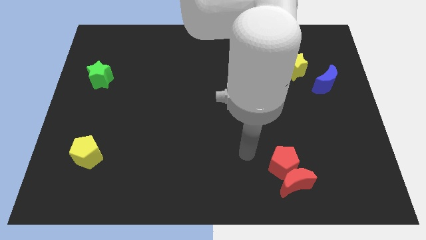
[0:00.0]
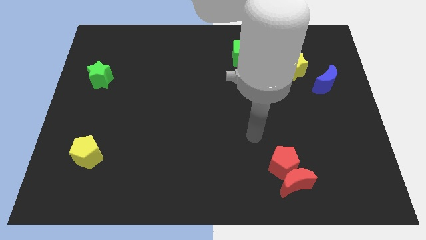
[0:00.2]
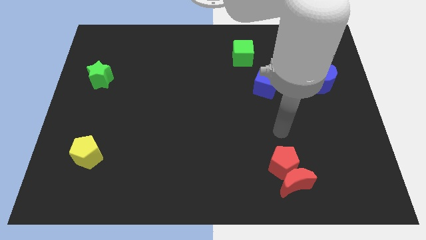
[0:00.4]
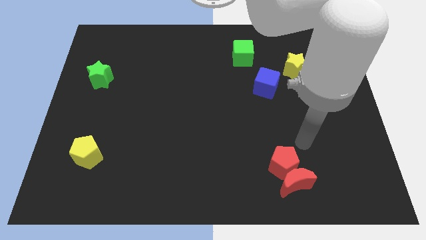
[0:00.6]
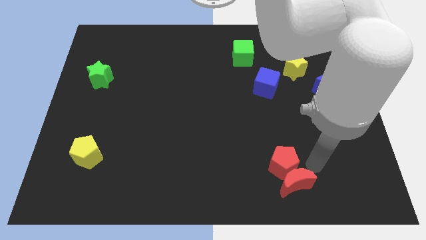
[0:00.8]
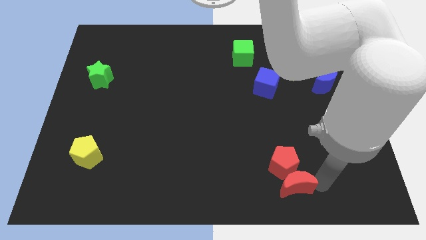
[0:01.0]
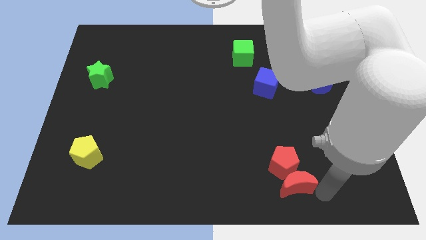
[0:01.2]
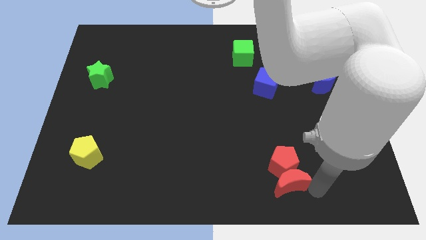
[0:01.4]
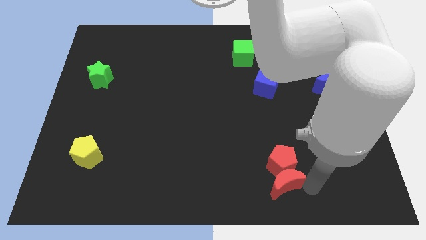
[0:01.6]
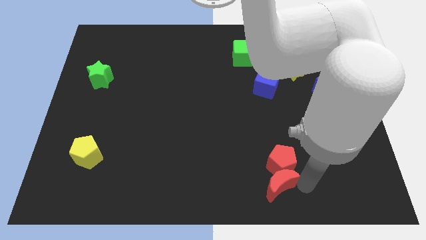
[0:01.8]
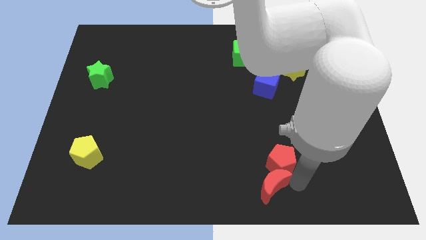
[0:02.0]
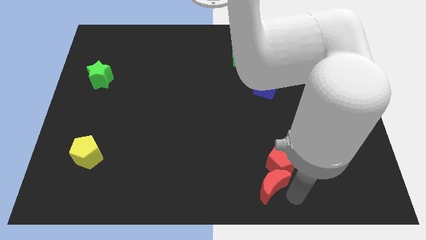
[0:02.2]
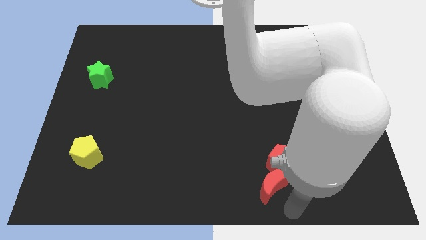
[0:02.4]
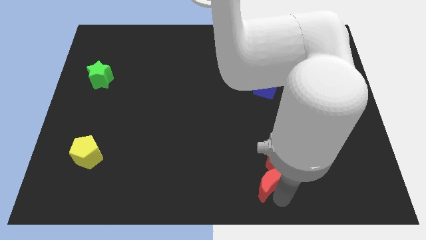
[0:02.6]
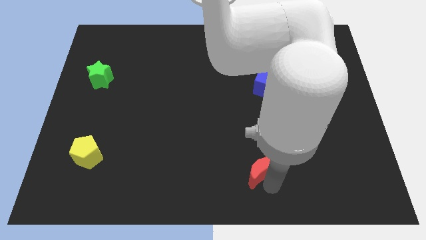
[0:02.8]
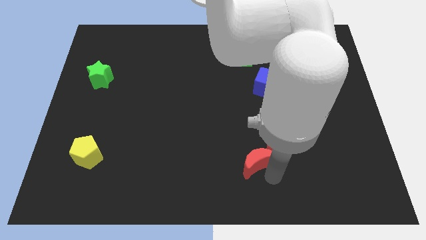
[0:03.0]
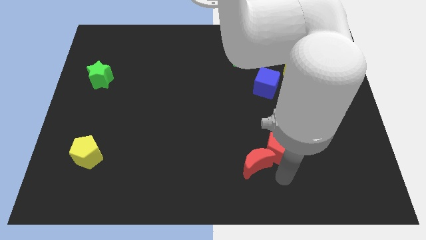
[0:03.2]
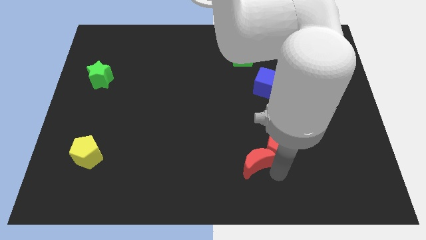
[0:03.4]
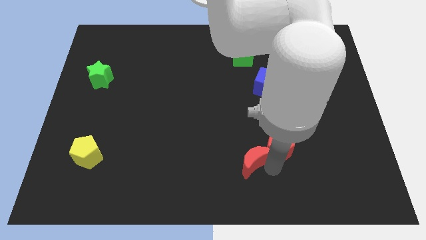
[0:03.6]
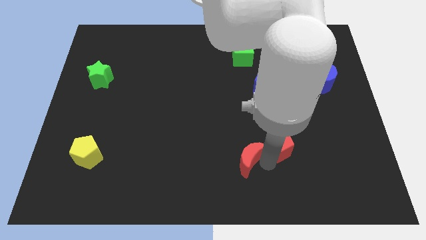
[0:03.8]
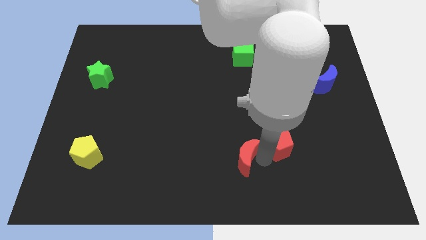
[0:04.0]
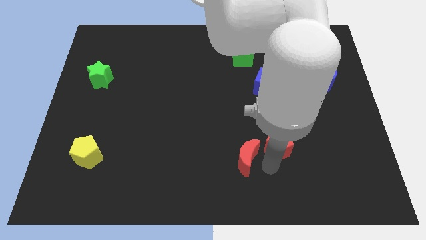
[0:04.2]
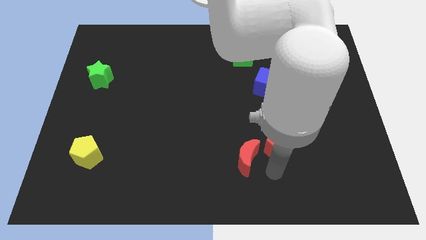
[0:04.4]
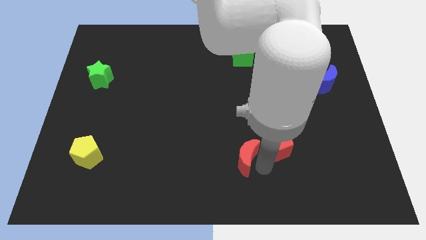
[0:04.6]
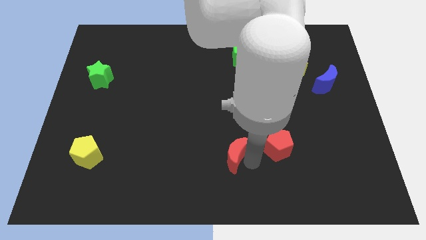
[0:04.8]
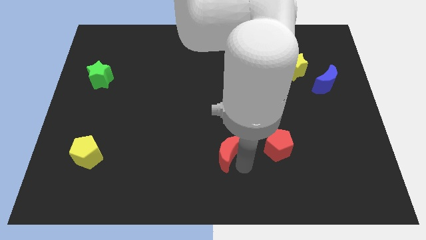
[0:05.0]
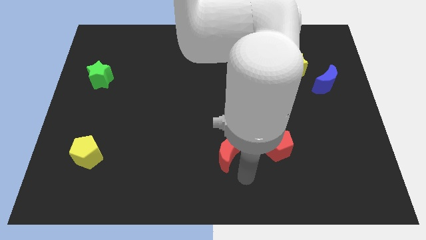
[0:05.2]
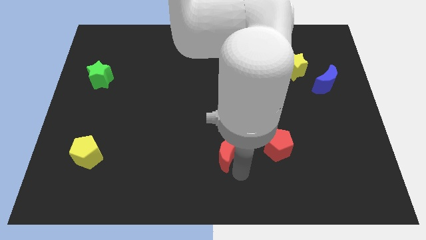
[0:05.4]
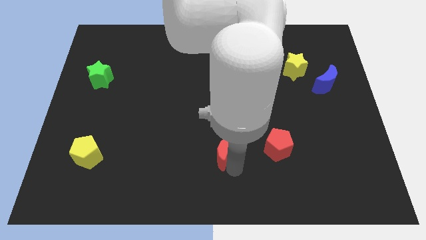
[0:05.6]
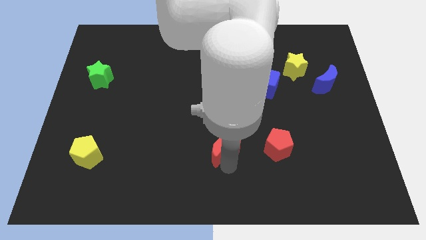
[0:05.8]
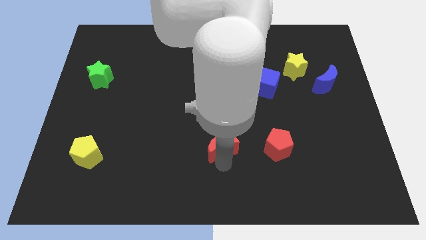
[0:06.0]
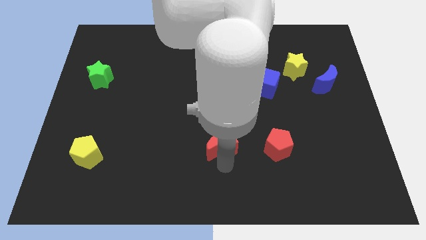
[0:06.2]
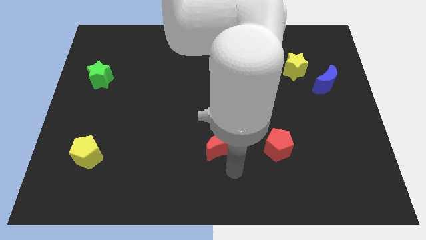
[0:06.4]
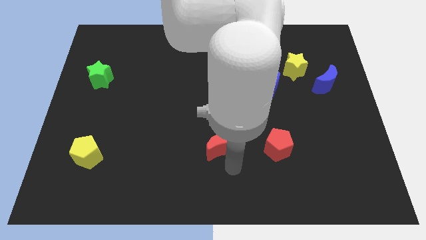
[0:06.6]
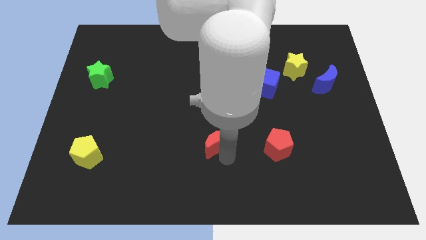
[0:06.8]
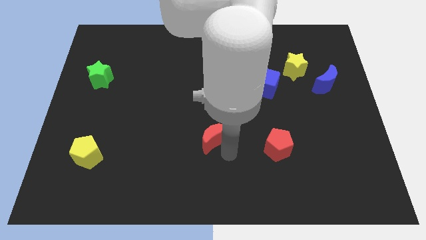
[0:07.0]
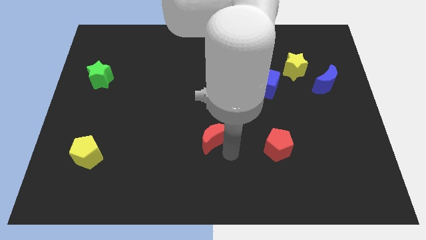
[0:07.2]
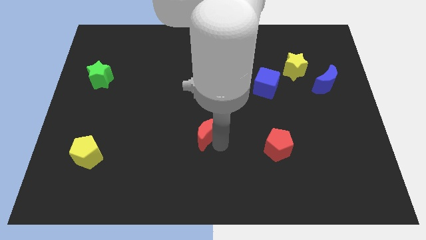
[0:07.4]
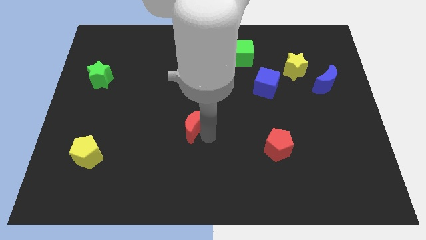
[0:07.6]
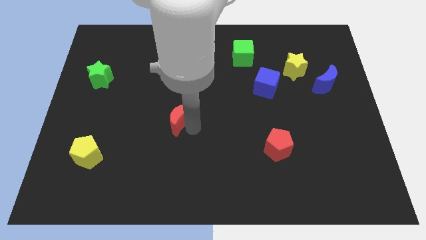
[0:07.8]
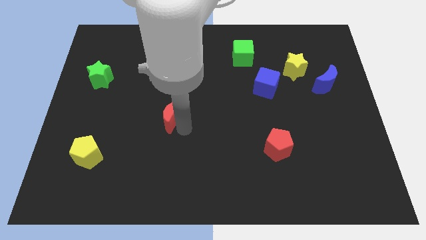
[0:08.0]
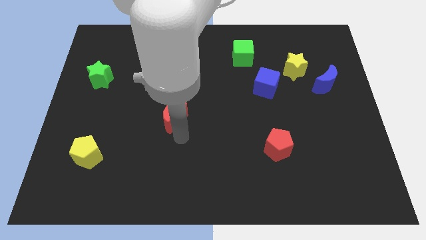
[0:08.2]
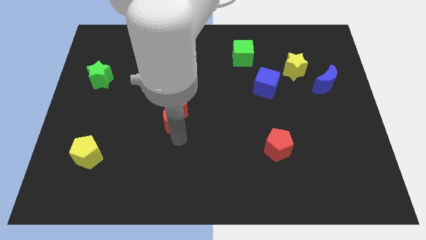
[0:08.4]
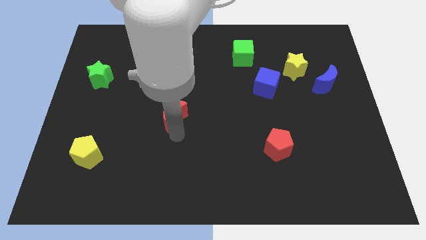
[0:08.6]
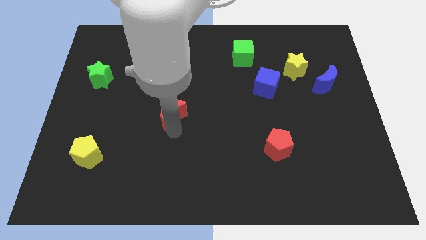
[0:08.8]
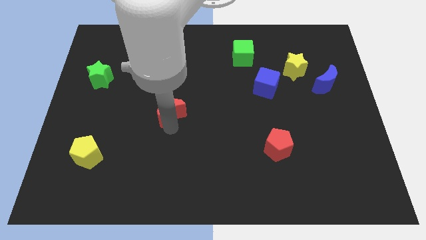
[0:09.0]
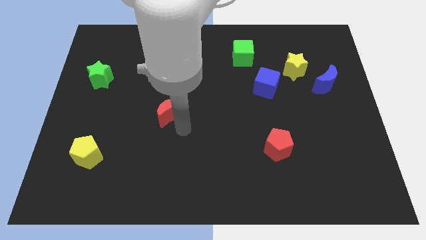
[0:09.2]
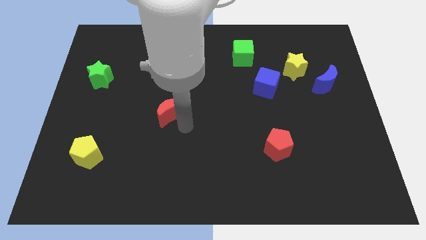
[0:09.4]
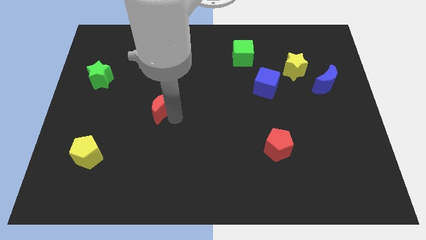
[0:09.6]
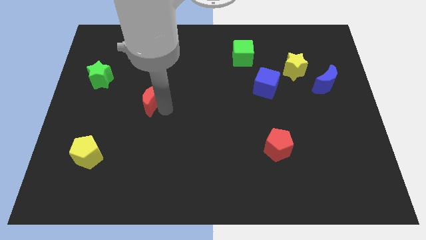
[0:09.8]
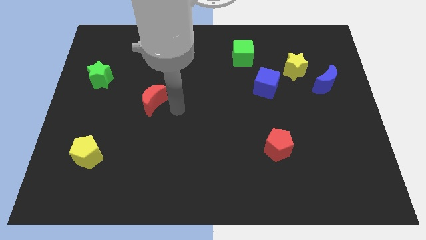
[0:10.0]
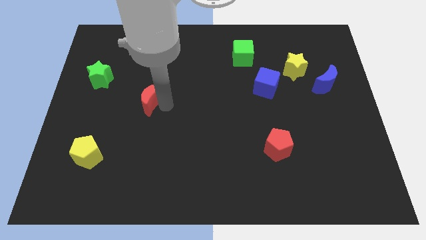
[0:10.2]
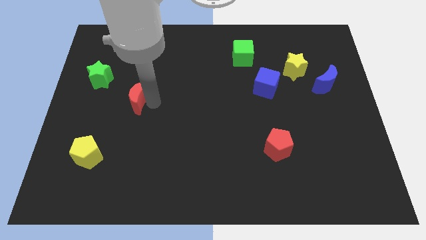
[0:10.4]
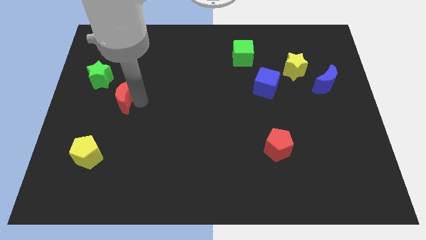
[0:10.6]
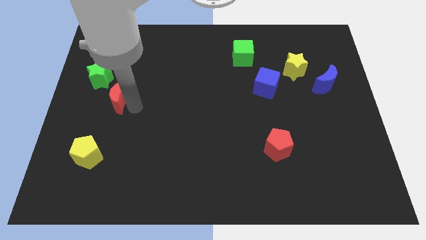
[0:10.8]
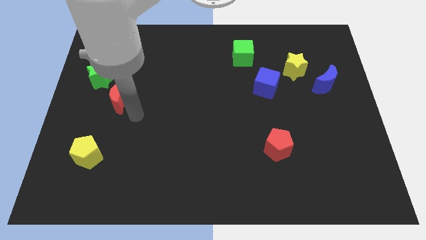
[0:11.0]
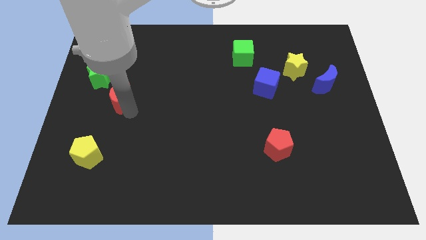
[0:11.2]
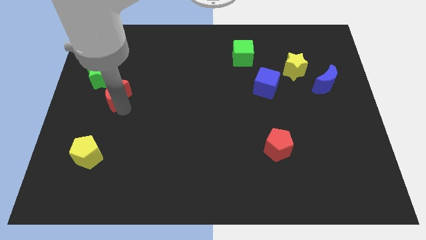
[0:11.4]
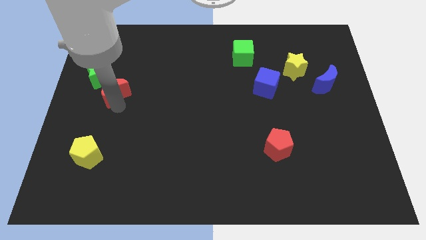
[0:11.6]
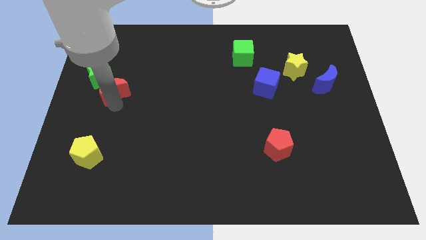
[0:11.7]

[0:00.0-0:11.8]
move the red moon next to the green star

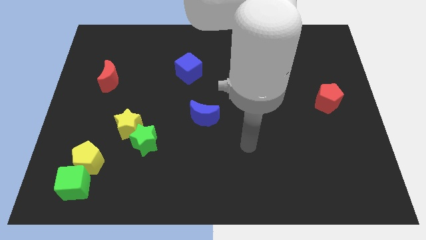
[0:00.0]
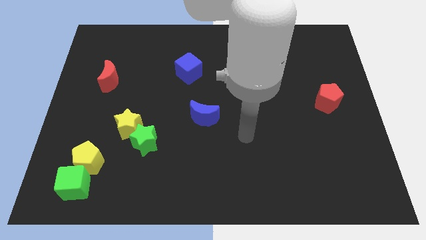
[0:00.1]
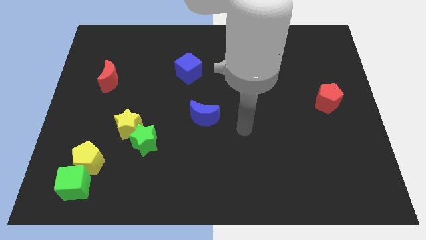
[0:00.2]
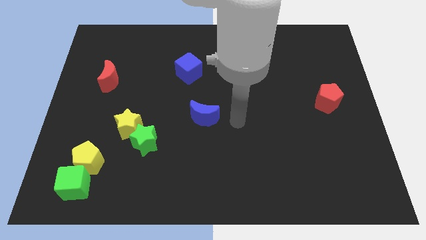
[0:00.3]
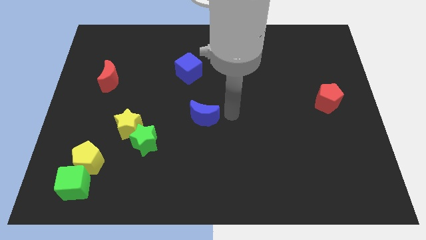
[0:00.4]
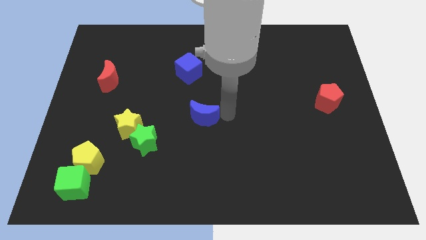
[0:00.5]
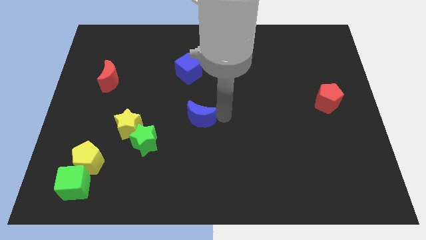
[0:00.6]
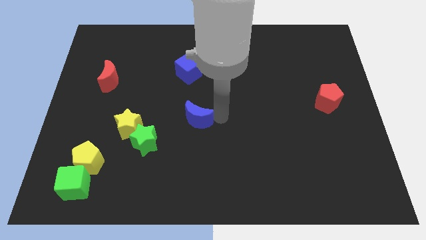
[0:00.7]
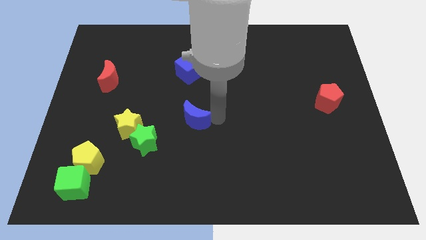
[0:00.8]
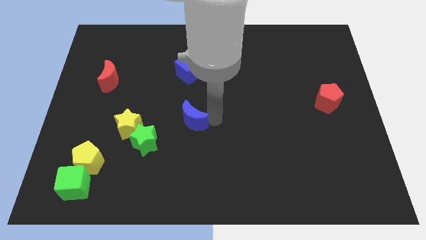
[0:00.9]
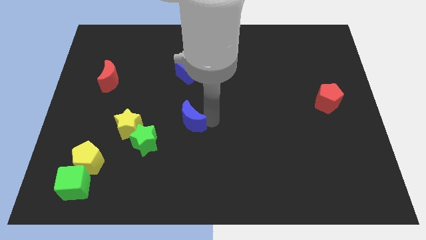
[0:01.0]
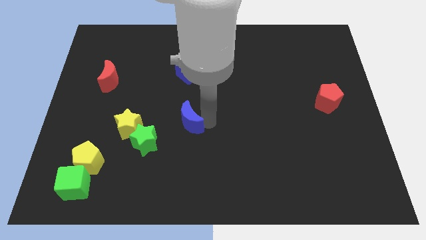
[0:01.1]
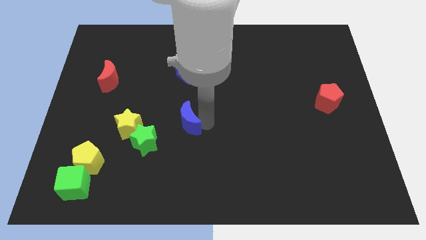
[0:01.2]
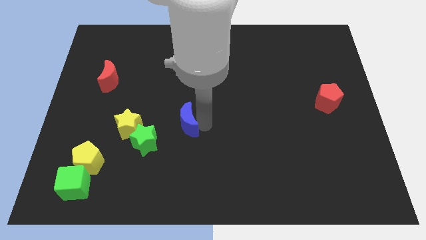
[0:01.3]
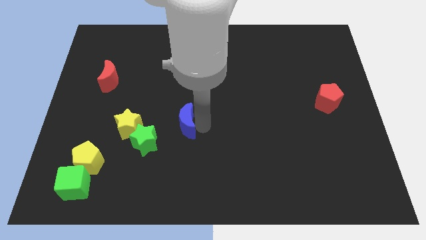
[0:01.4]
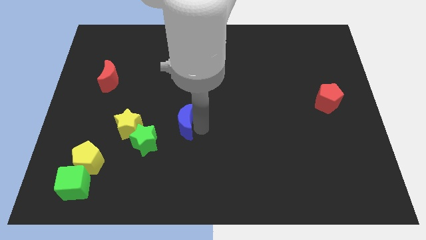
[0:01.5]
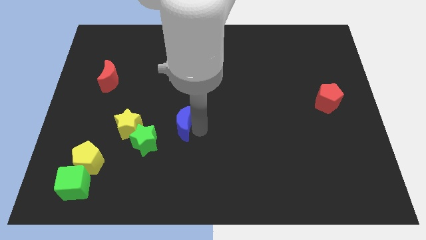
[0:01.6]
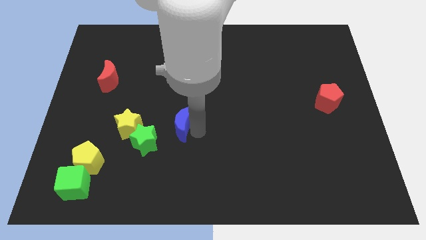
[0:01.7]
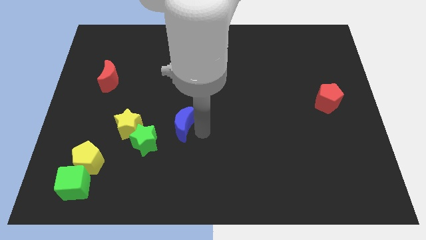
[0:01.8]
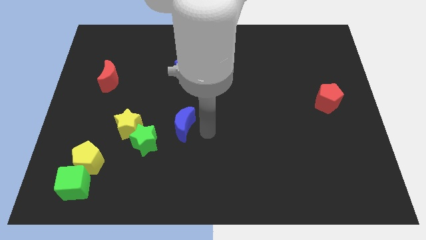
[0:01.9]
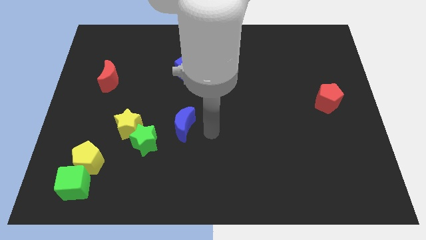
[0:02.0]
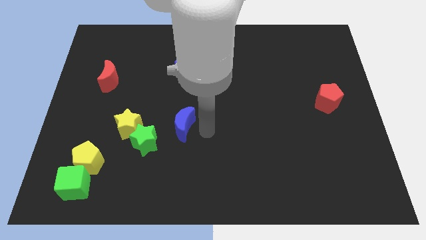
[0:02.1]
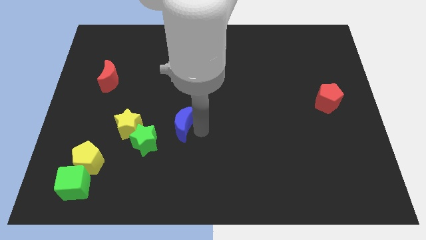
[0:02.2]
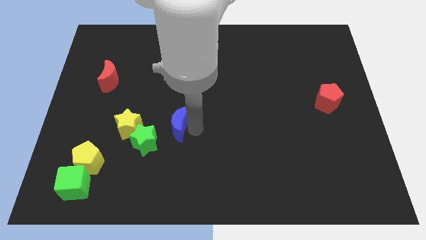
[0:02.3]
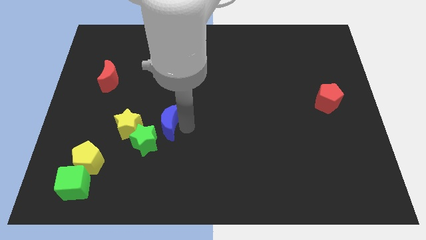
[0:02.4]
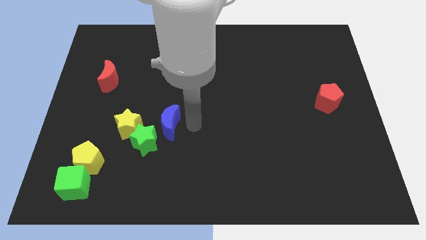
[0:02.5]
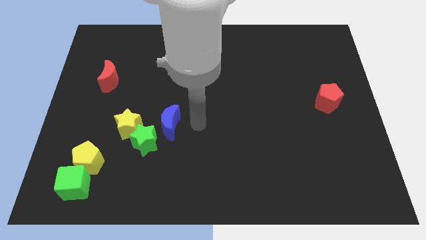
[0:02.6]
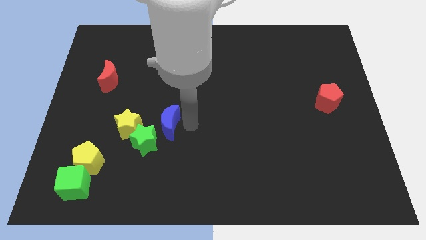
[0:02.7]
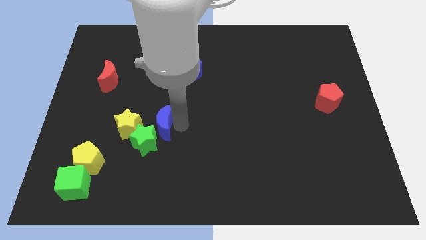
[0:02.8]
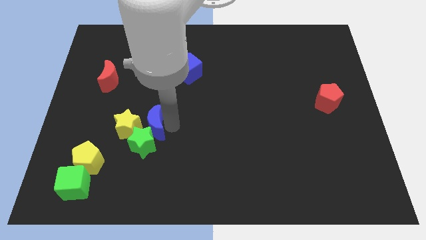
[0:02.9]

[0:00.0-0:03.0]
push the blue moon to the yellow star
